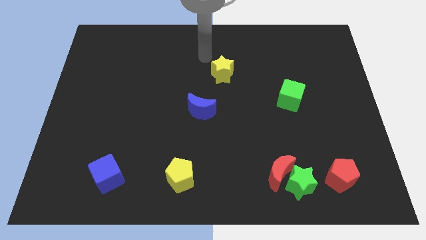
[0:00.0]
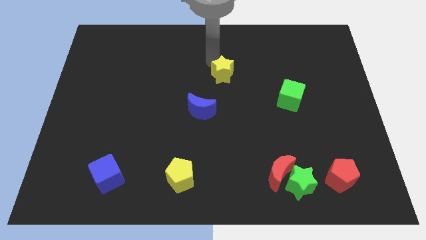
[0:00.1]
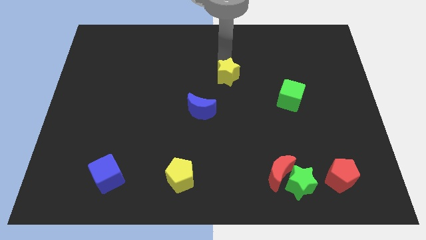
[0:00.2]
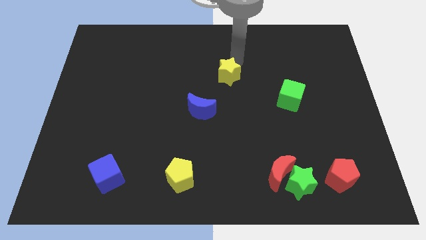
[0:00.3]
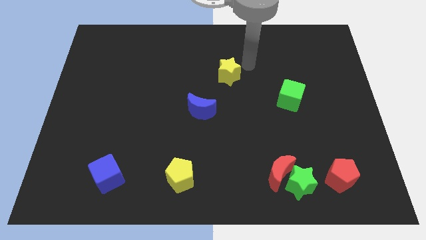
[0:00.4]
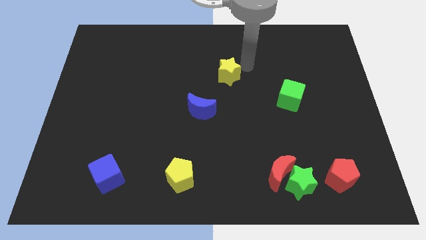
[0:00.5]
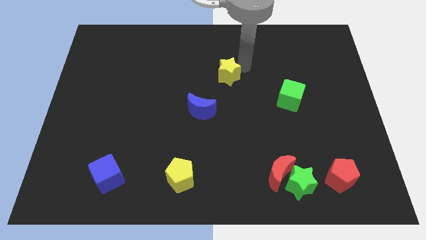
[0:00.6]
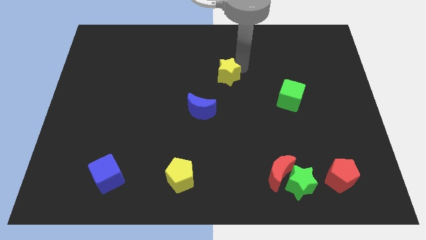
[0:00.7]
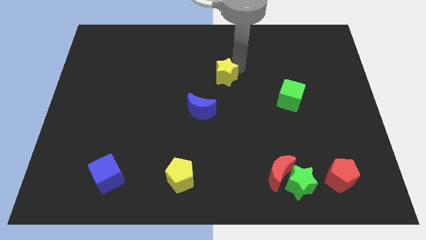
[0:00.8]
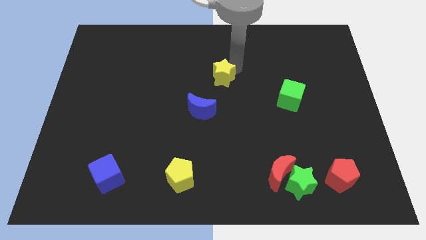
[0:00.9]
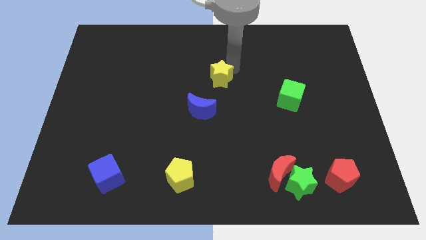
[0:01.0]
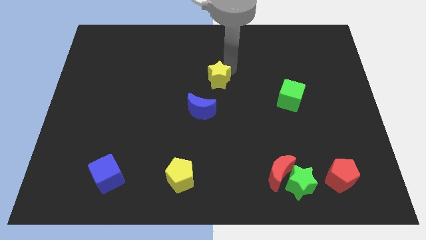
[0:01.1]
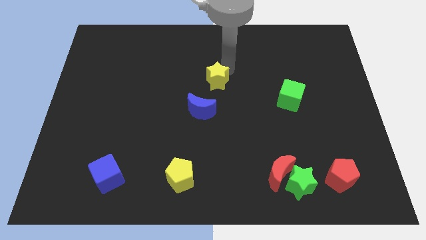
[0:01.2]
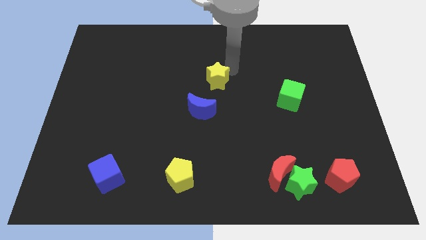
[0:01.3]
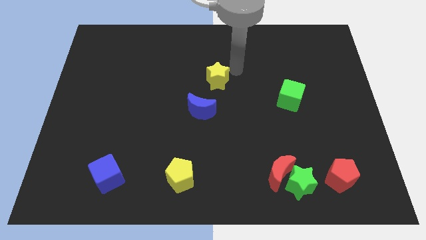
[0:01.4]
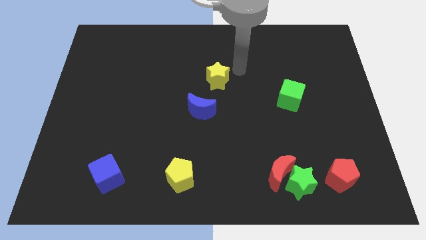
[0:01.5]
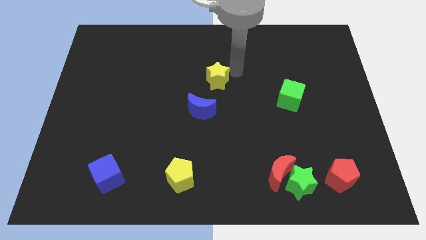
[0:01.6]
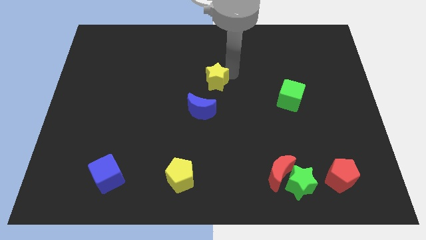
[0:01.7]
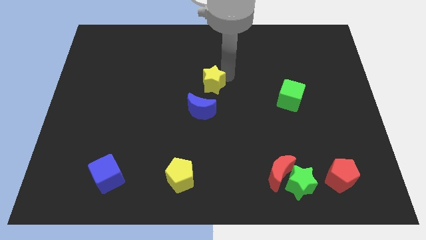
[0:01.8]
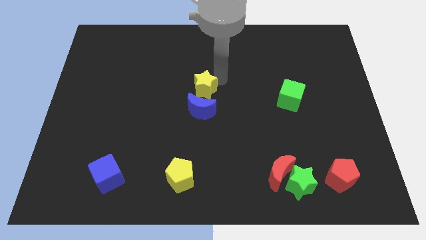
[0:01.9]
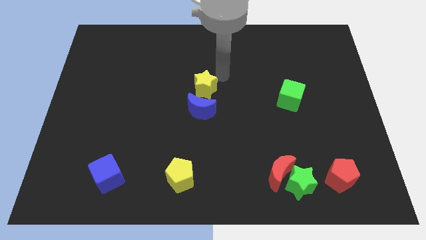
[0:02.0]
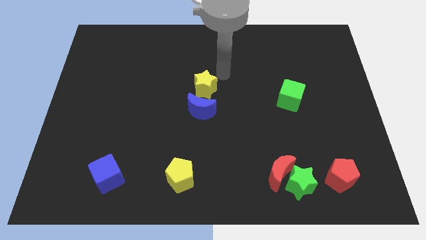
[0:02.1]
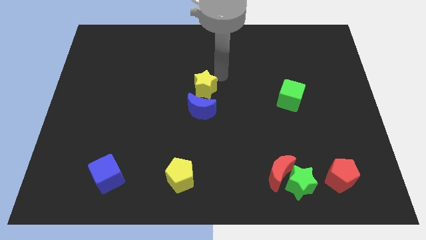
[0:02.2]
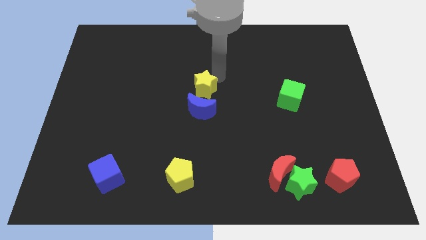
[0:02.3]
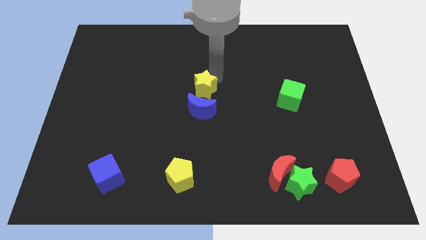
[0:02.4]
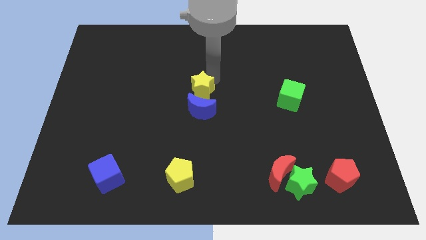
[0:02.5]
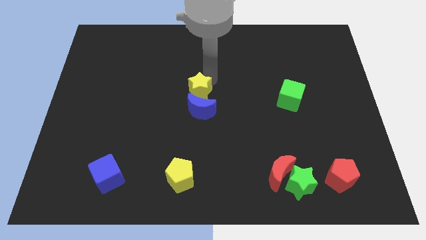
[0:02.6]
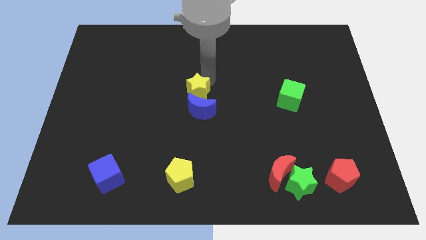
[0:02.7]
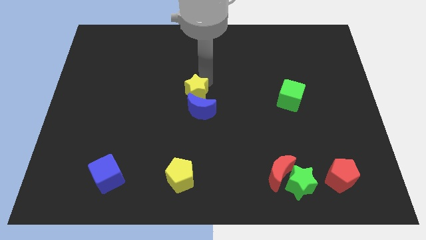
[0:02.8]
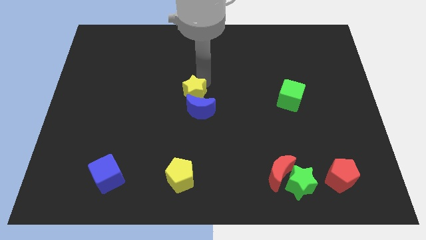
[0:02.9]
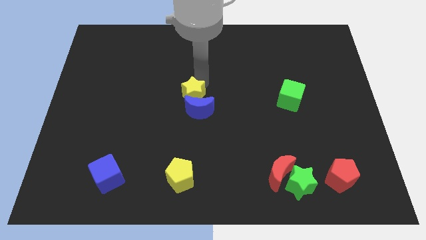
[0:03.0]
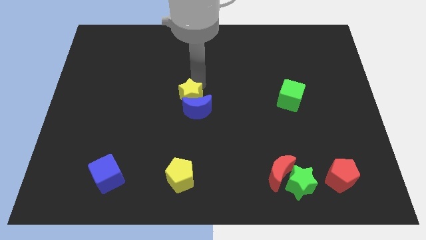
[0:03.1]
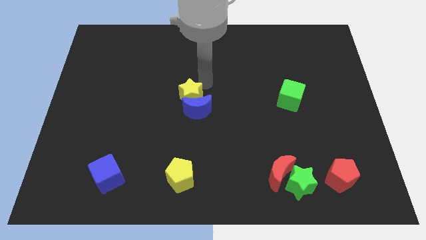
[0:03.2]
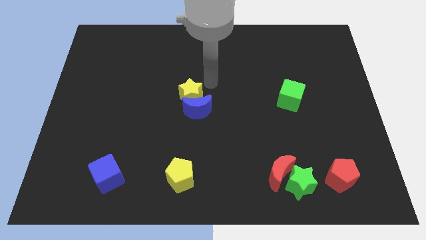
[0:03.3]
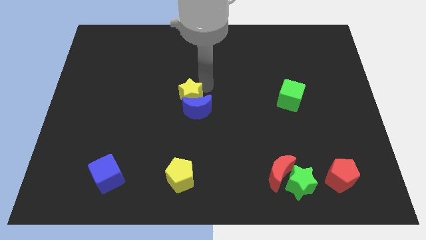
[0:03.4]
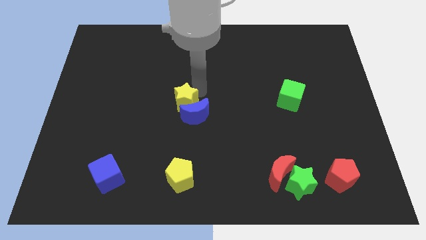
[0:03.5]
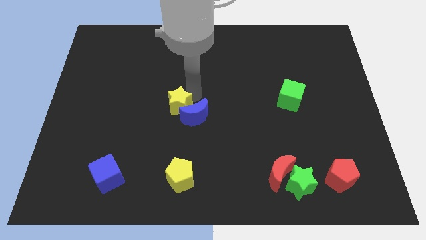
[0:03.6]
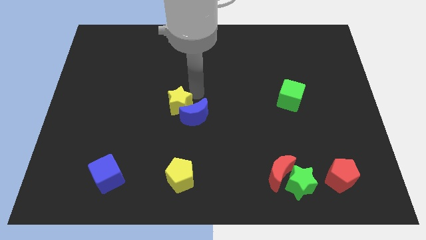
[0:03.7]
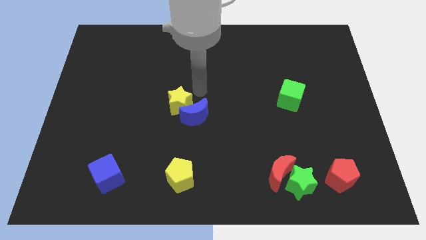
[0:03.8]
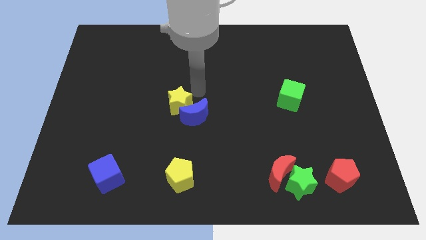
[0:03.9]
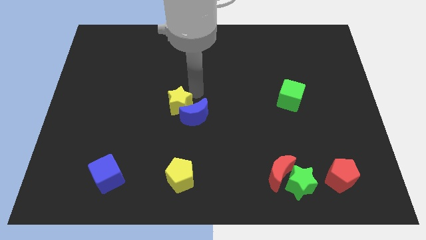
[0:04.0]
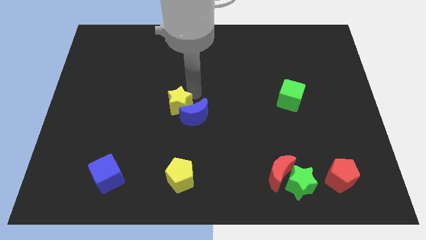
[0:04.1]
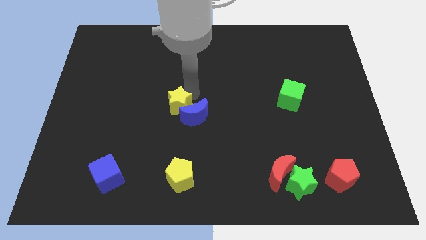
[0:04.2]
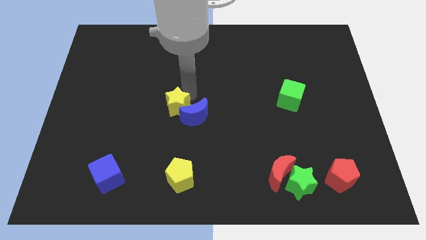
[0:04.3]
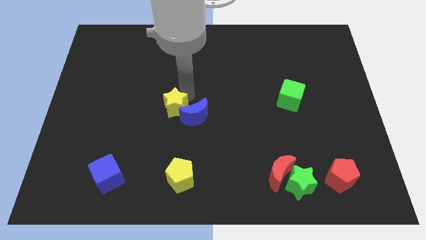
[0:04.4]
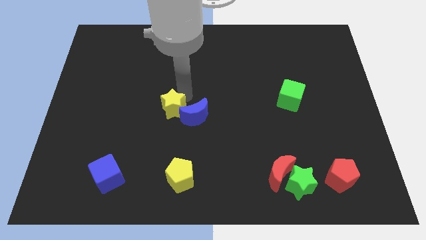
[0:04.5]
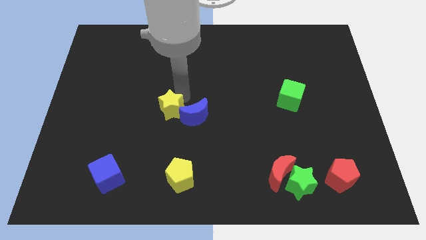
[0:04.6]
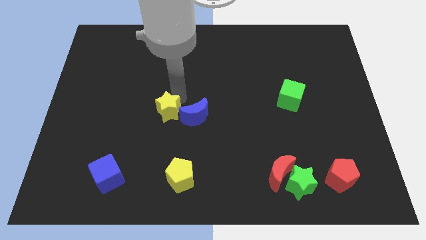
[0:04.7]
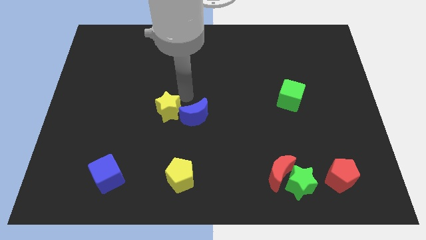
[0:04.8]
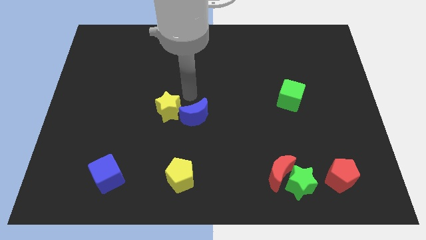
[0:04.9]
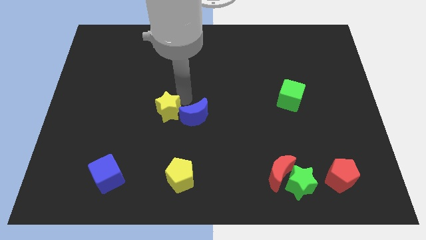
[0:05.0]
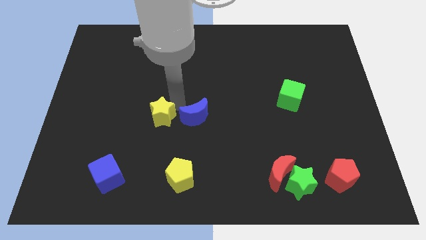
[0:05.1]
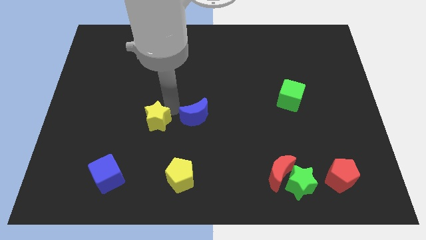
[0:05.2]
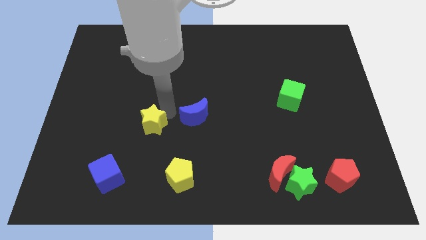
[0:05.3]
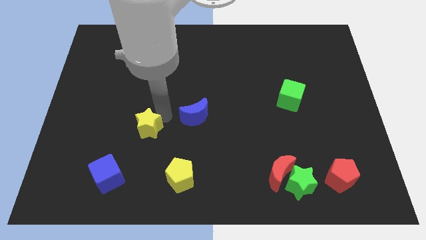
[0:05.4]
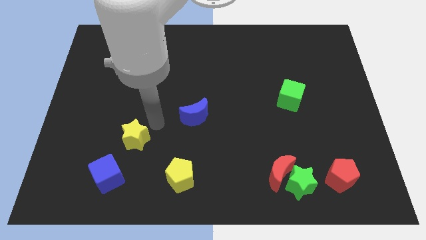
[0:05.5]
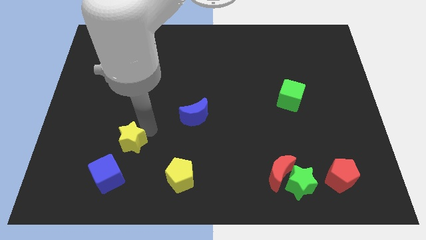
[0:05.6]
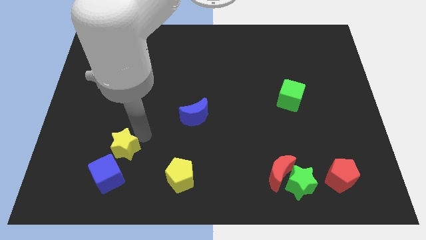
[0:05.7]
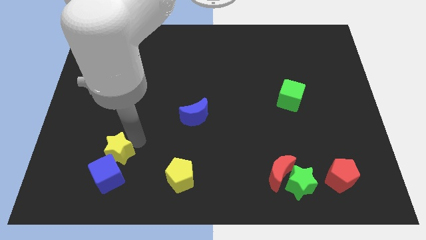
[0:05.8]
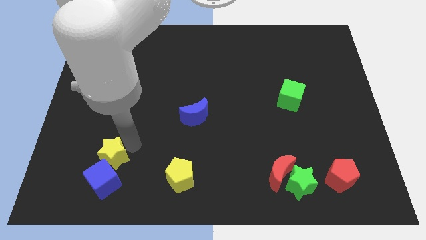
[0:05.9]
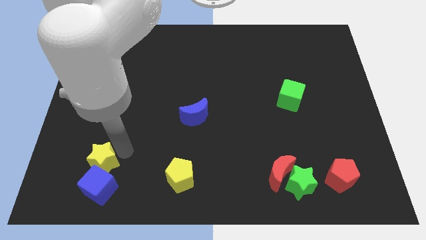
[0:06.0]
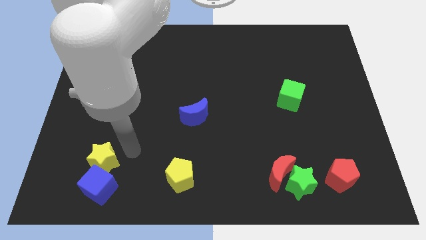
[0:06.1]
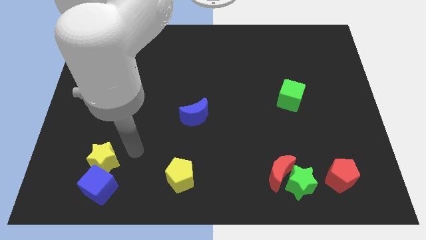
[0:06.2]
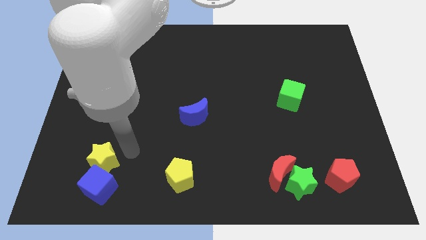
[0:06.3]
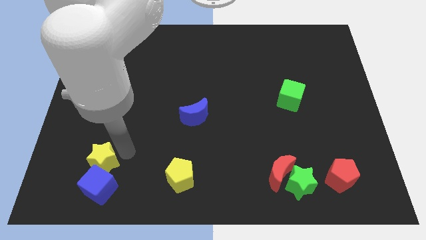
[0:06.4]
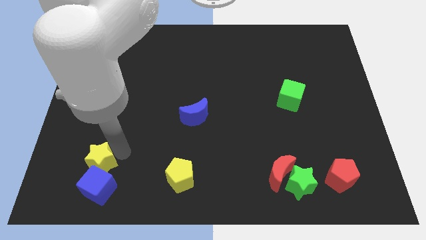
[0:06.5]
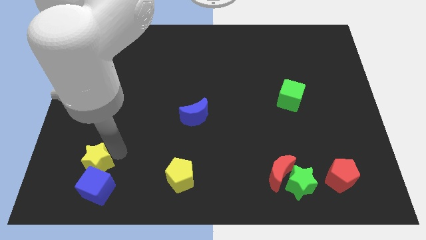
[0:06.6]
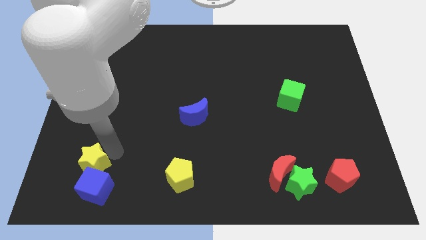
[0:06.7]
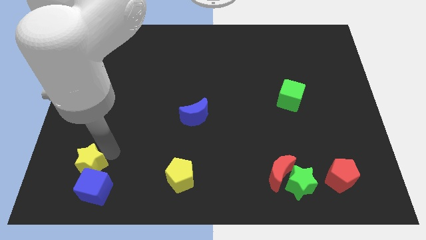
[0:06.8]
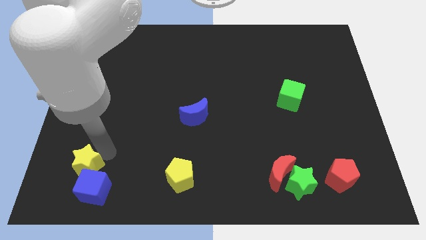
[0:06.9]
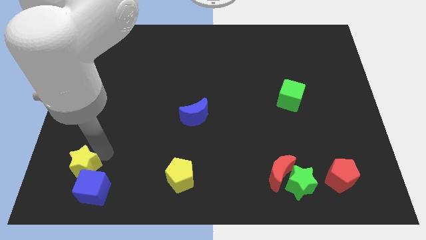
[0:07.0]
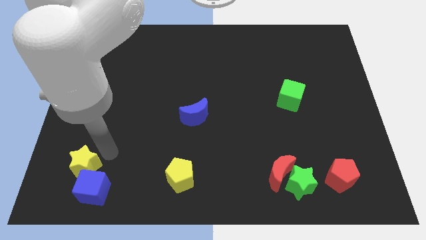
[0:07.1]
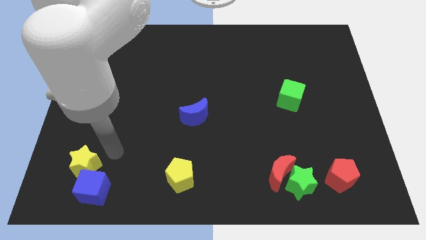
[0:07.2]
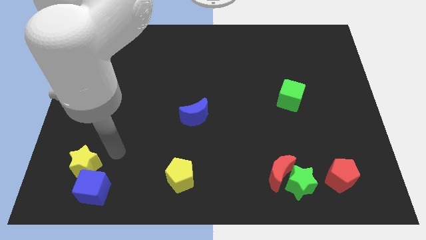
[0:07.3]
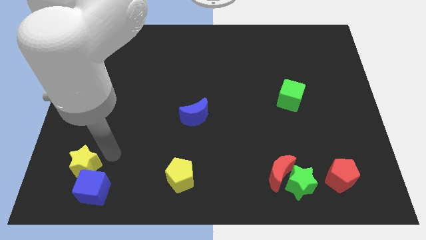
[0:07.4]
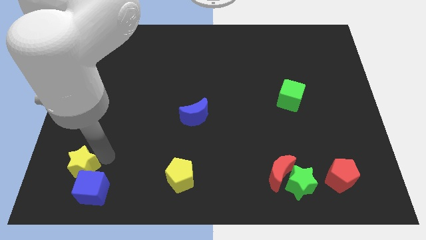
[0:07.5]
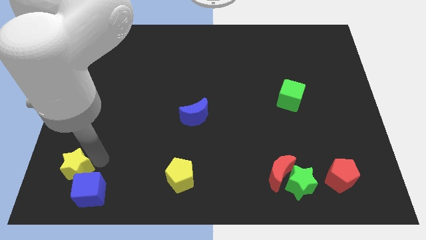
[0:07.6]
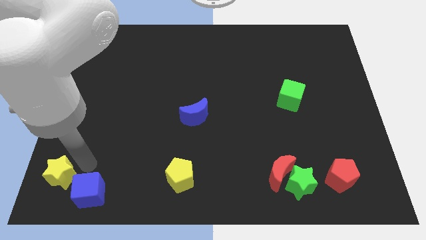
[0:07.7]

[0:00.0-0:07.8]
move the yellow star to the bottom left corner
